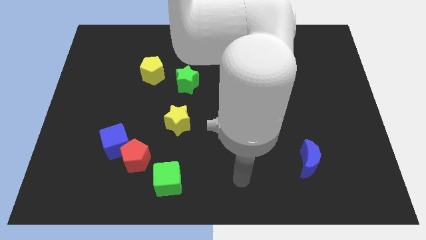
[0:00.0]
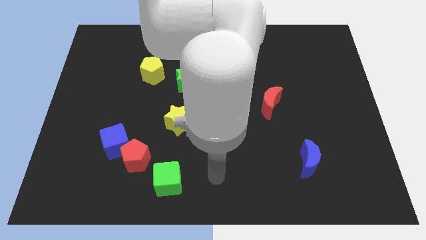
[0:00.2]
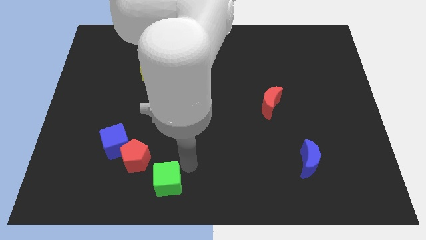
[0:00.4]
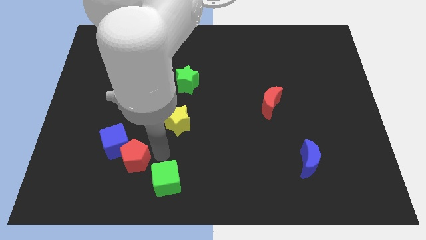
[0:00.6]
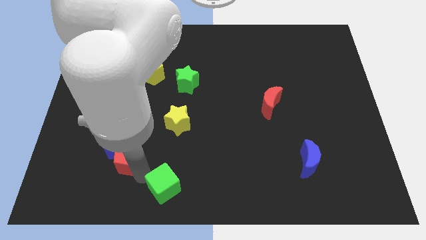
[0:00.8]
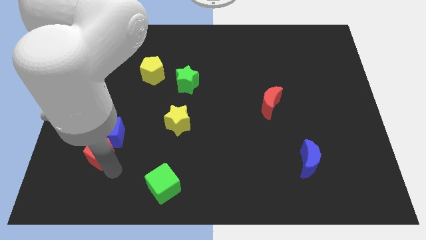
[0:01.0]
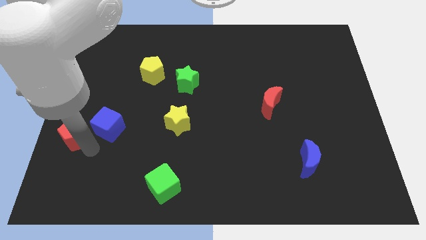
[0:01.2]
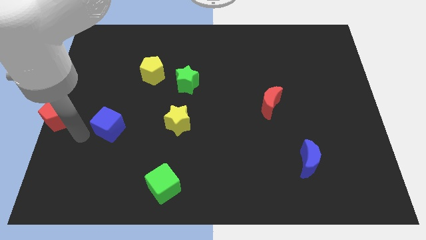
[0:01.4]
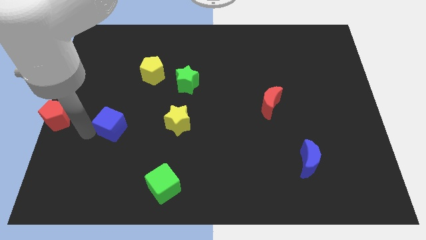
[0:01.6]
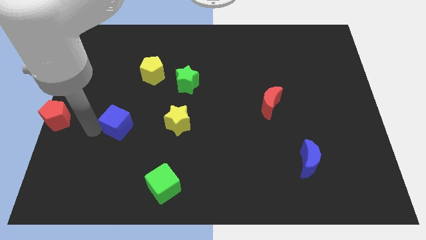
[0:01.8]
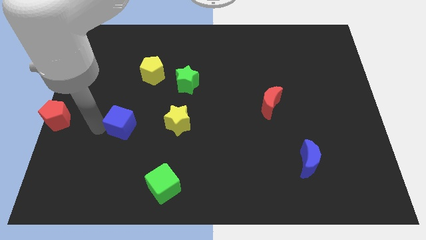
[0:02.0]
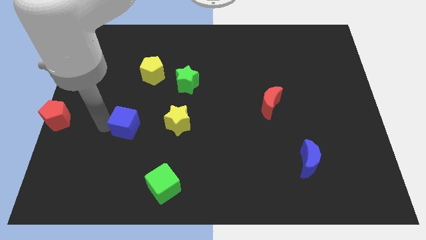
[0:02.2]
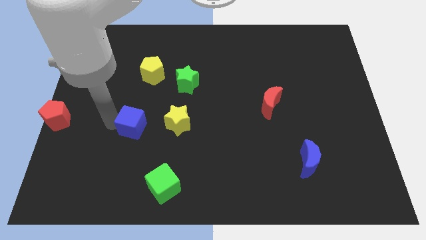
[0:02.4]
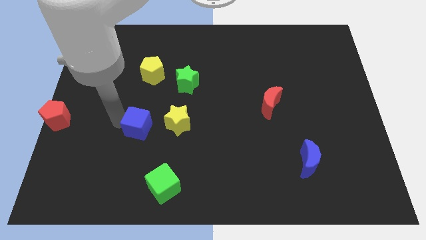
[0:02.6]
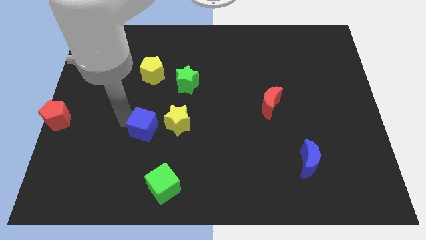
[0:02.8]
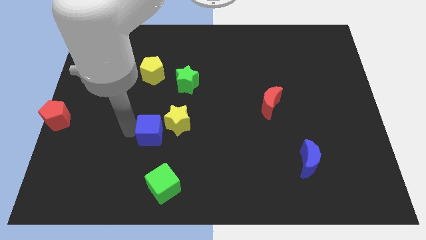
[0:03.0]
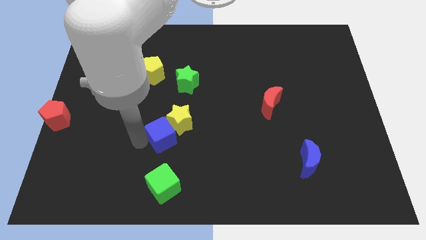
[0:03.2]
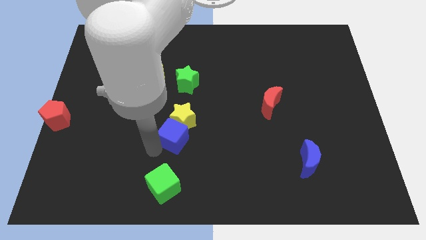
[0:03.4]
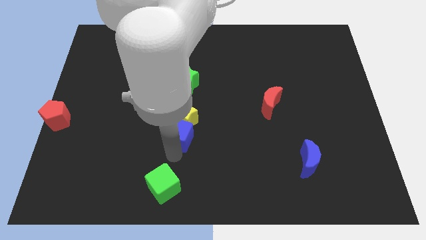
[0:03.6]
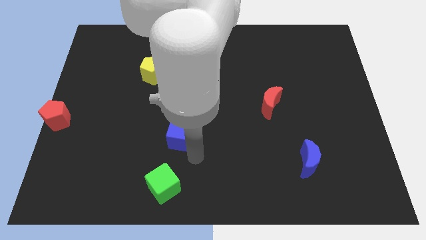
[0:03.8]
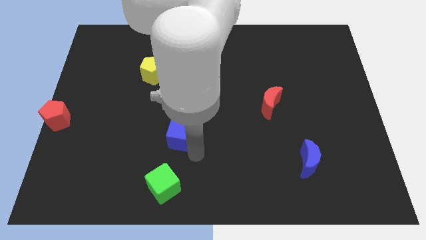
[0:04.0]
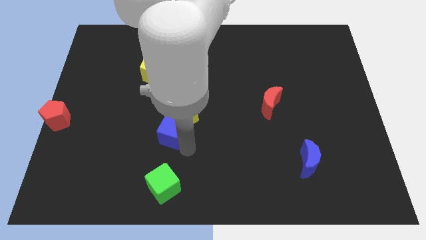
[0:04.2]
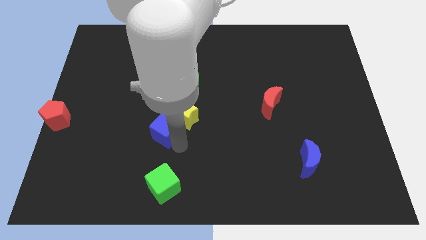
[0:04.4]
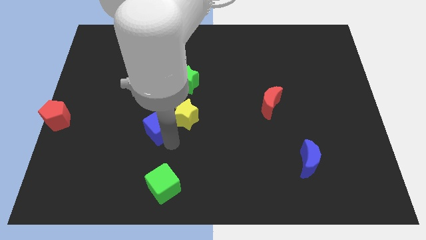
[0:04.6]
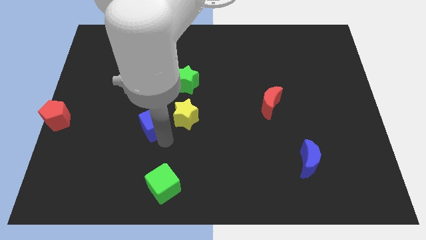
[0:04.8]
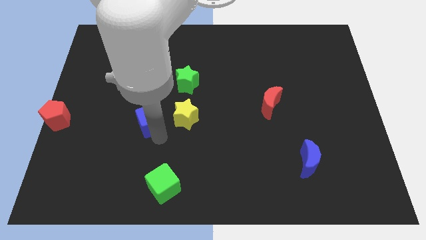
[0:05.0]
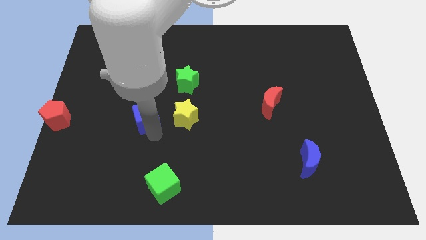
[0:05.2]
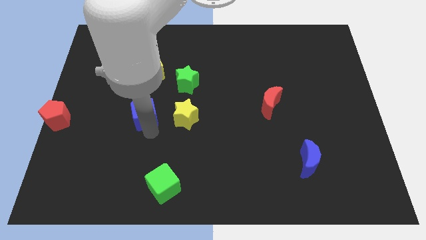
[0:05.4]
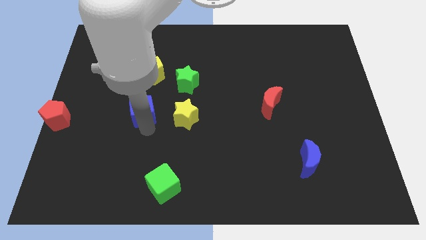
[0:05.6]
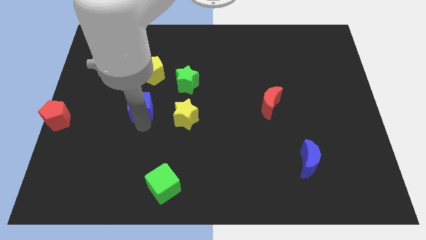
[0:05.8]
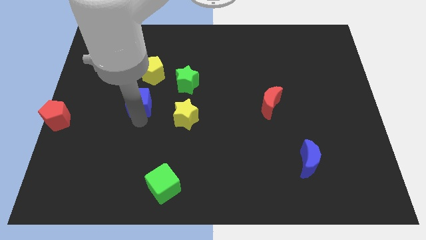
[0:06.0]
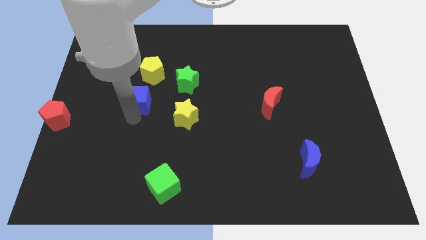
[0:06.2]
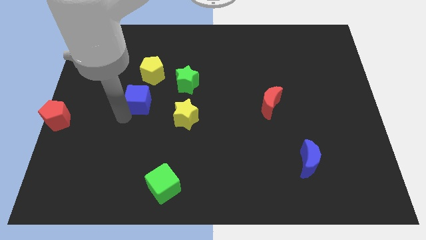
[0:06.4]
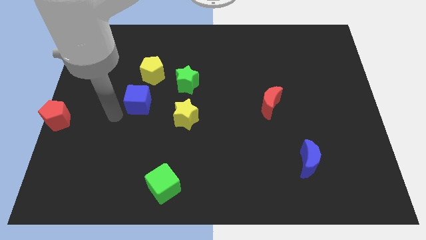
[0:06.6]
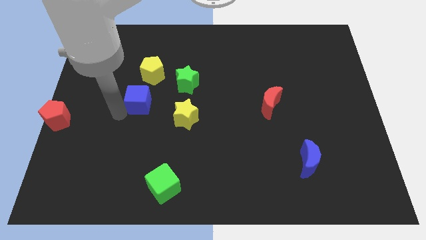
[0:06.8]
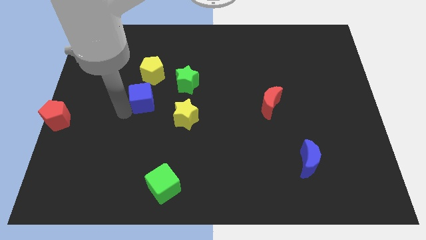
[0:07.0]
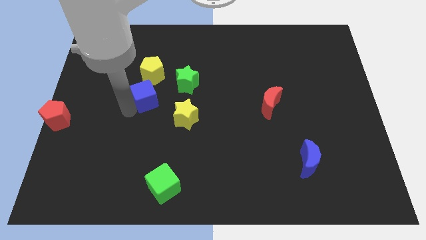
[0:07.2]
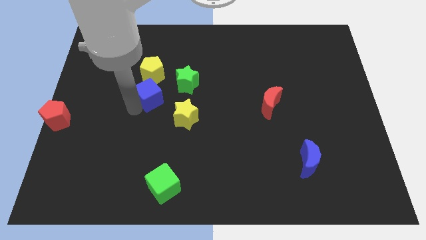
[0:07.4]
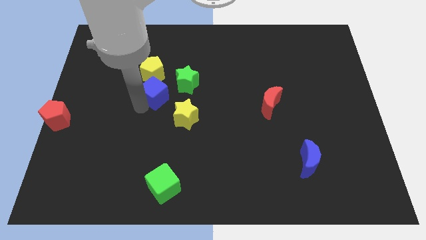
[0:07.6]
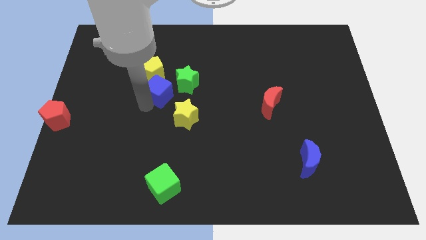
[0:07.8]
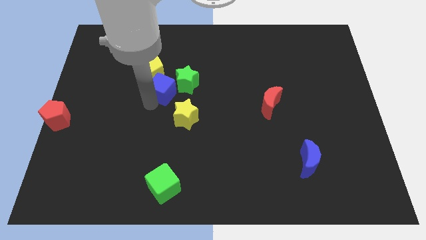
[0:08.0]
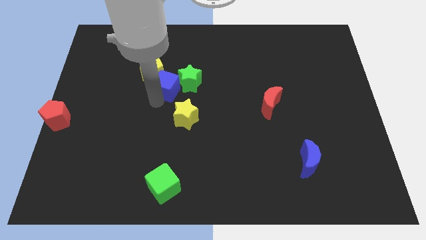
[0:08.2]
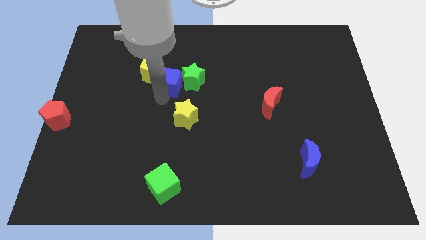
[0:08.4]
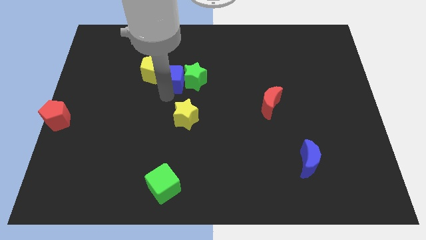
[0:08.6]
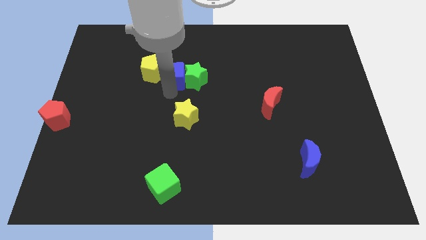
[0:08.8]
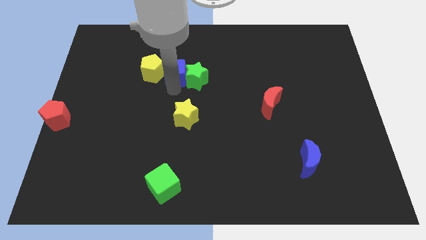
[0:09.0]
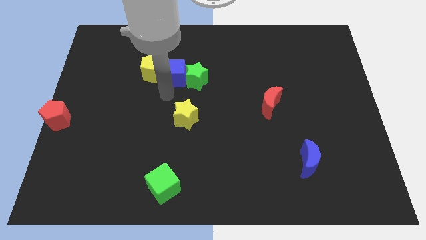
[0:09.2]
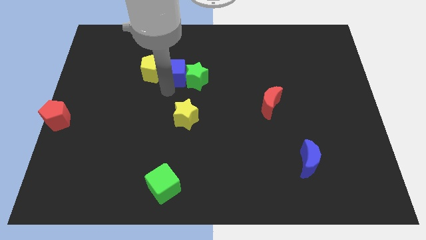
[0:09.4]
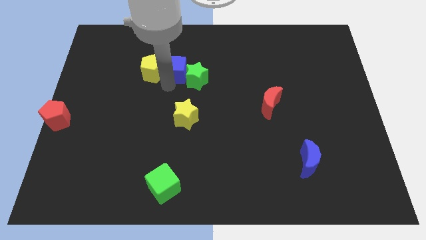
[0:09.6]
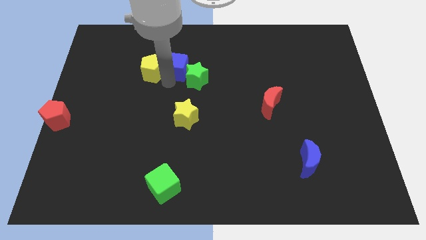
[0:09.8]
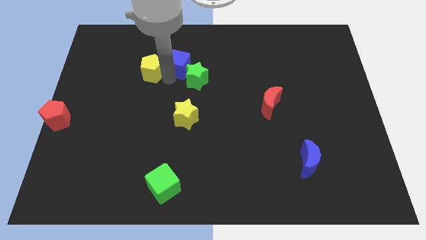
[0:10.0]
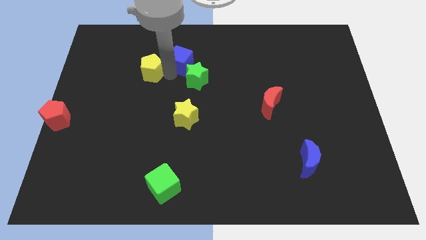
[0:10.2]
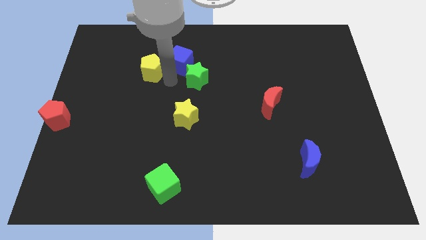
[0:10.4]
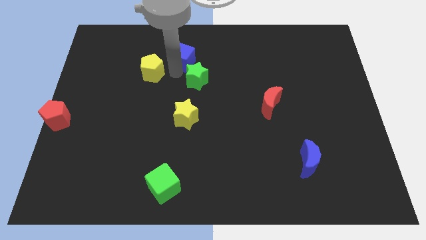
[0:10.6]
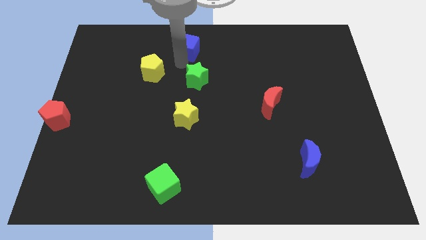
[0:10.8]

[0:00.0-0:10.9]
move the blue cube to the top side

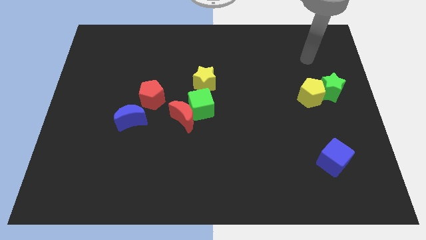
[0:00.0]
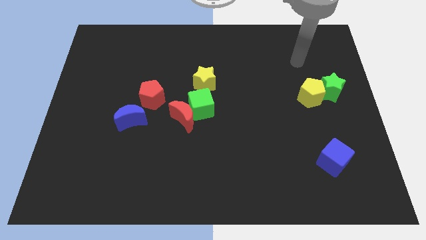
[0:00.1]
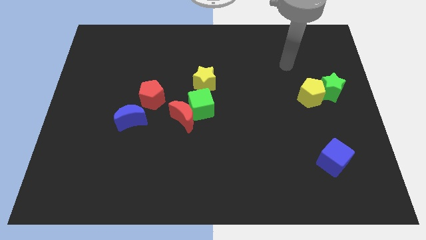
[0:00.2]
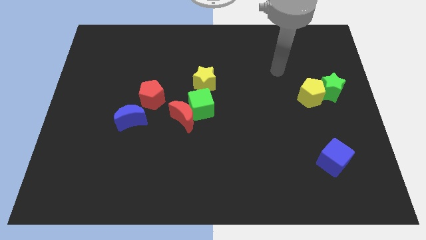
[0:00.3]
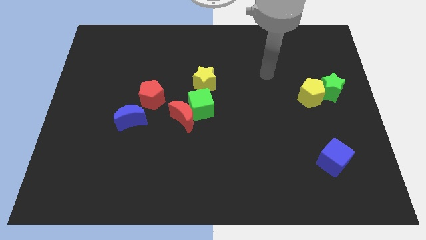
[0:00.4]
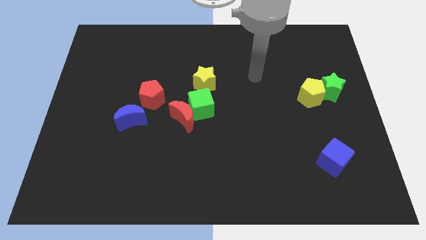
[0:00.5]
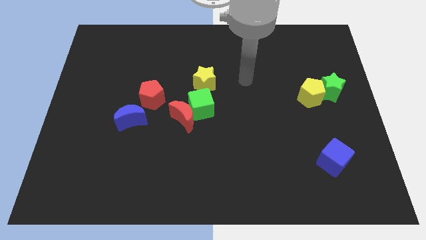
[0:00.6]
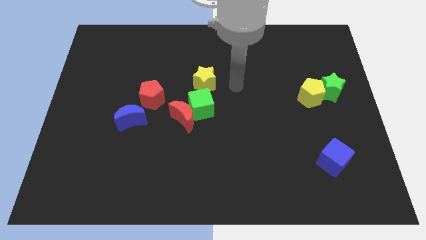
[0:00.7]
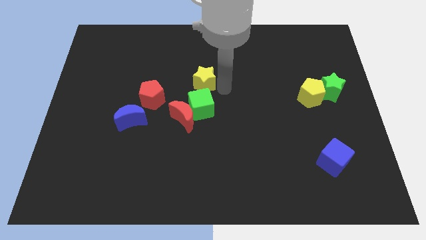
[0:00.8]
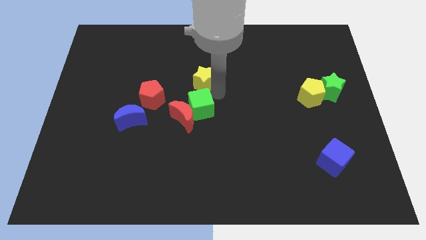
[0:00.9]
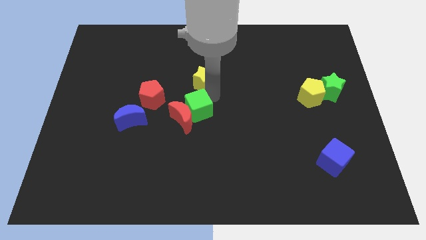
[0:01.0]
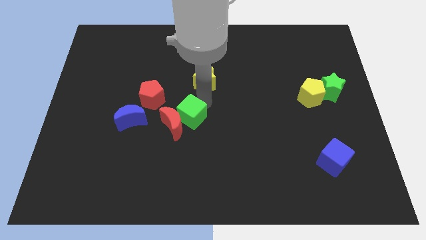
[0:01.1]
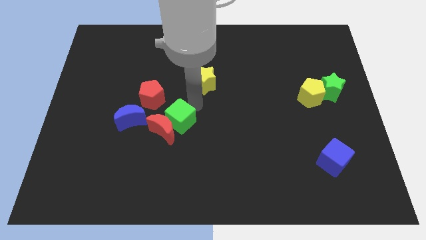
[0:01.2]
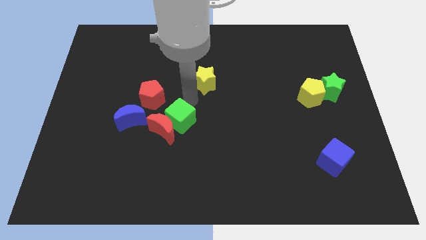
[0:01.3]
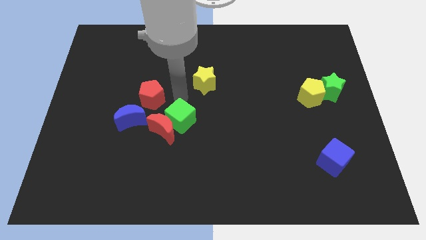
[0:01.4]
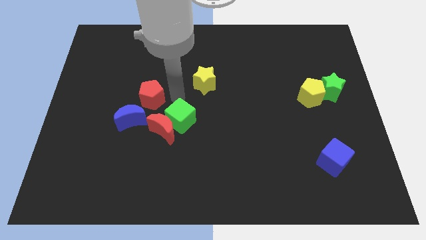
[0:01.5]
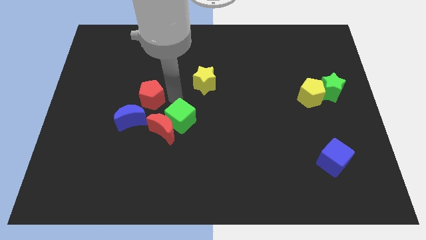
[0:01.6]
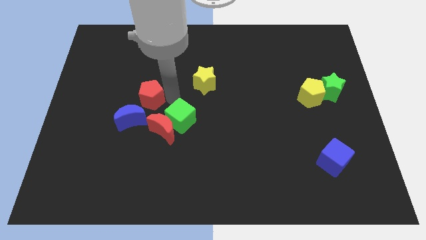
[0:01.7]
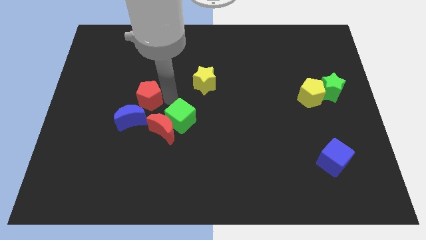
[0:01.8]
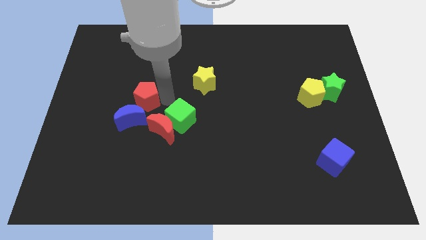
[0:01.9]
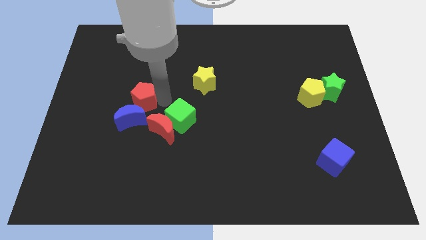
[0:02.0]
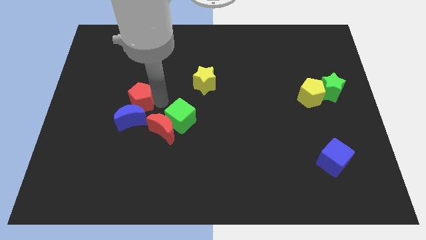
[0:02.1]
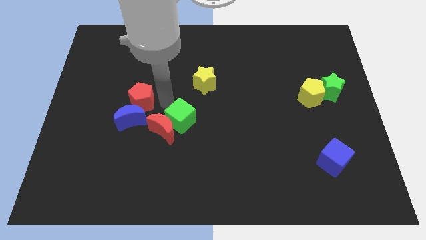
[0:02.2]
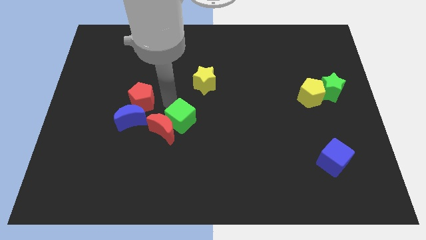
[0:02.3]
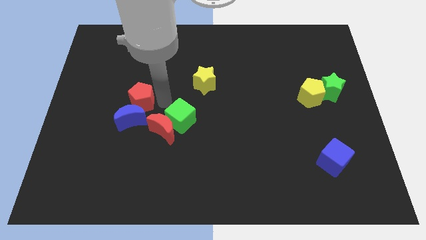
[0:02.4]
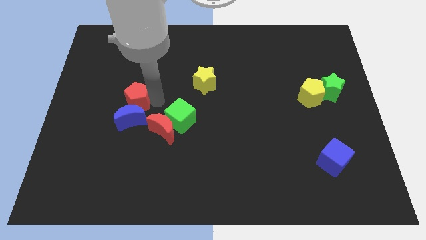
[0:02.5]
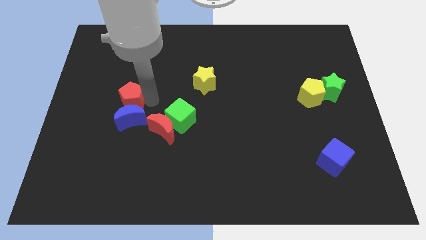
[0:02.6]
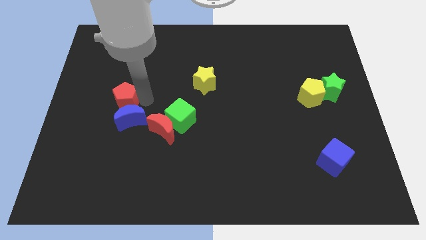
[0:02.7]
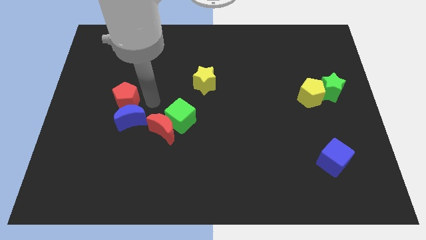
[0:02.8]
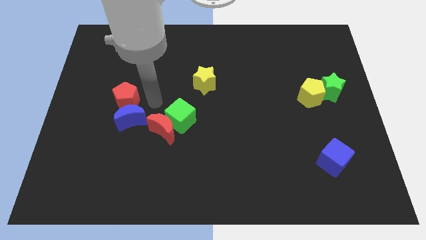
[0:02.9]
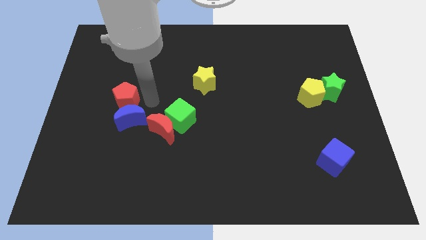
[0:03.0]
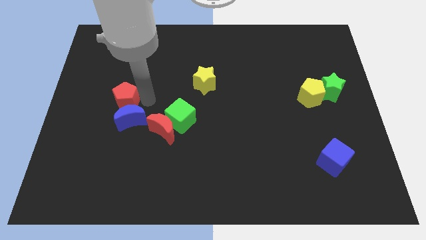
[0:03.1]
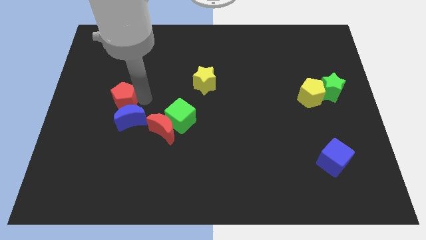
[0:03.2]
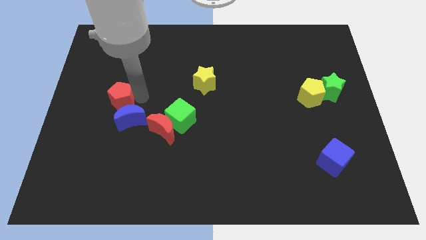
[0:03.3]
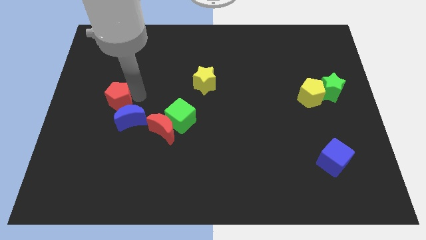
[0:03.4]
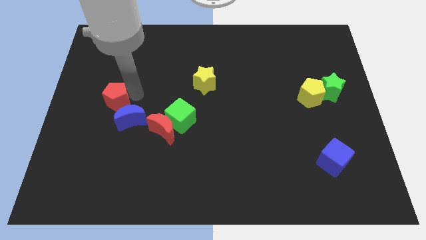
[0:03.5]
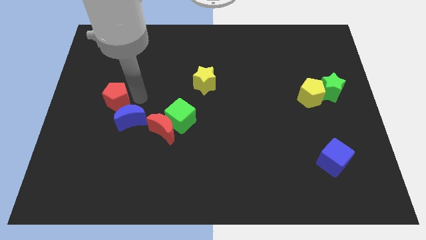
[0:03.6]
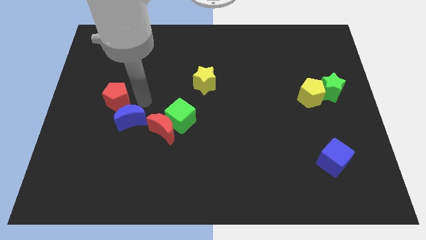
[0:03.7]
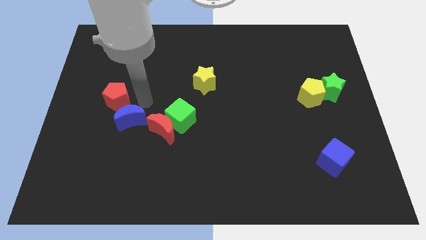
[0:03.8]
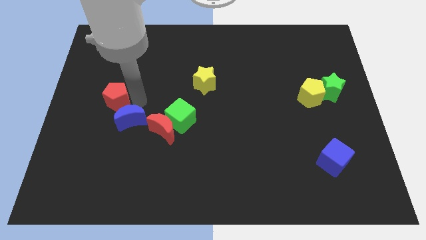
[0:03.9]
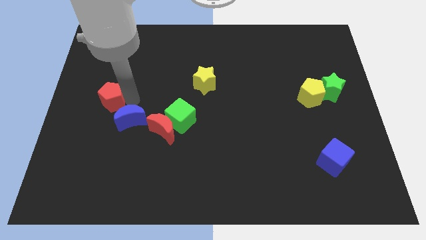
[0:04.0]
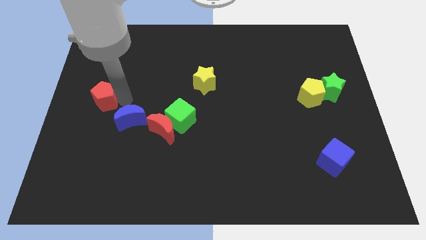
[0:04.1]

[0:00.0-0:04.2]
put the red pentagon to the center left
